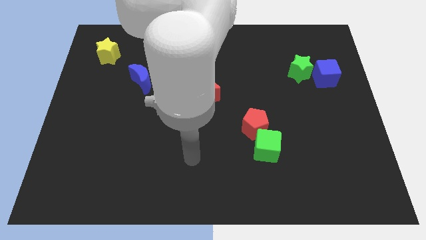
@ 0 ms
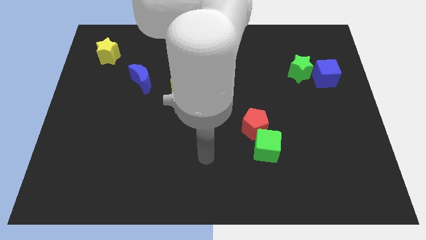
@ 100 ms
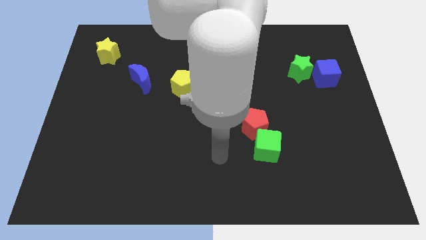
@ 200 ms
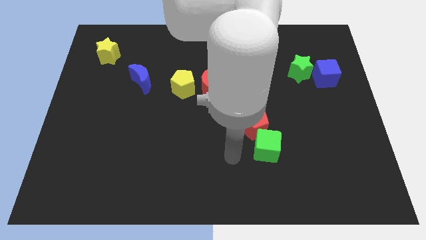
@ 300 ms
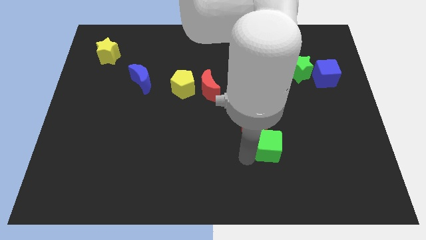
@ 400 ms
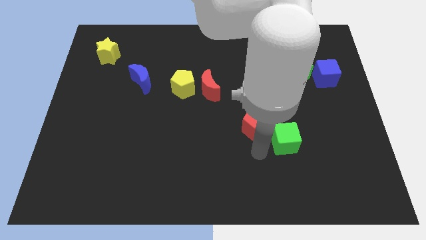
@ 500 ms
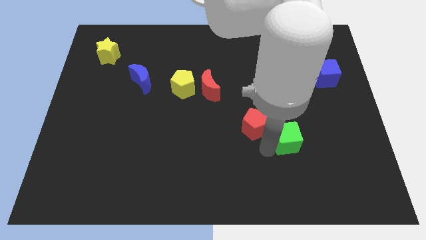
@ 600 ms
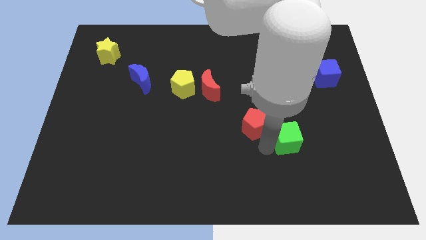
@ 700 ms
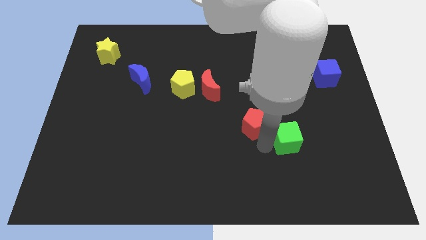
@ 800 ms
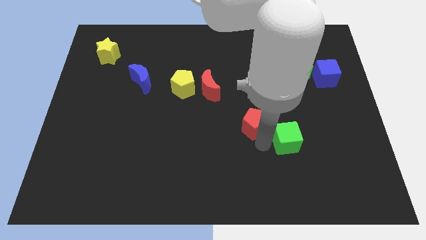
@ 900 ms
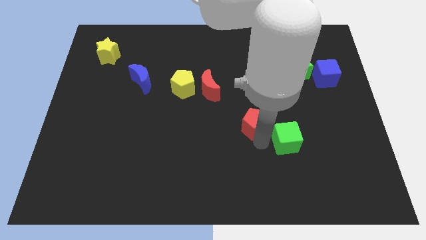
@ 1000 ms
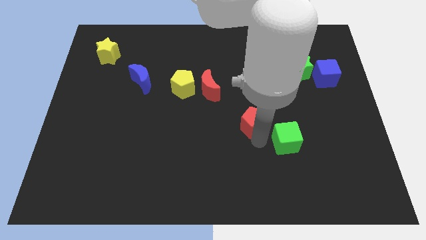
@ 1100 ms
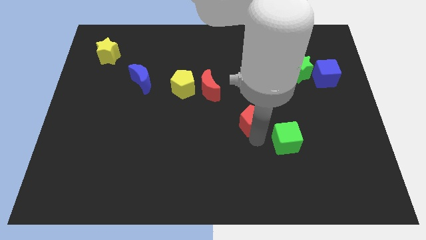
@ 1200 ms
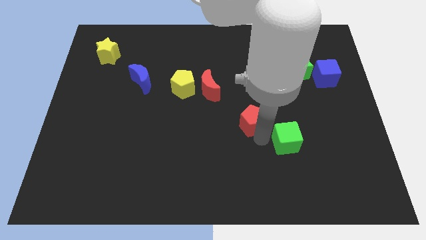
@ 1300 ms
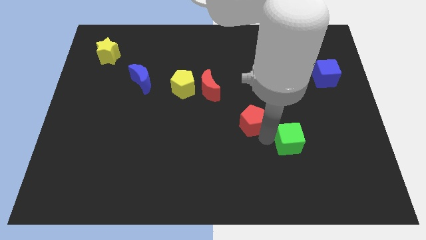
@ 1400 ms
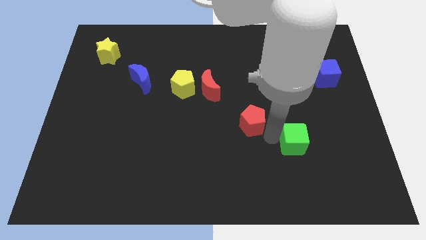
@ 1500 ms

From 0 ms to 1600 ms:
move the red pentagon away from the green cube

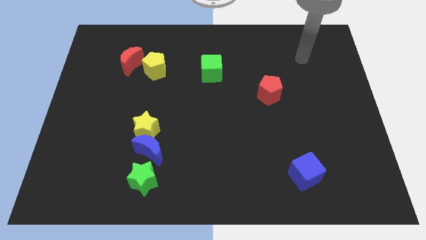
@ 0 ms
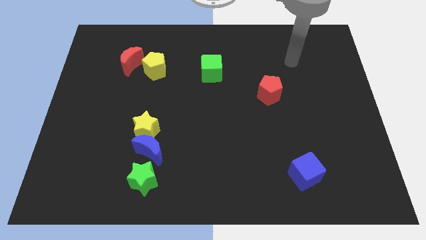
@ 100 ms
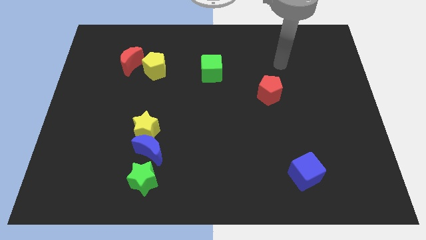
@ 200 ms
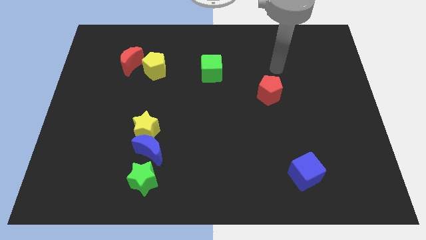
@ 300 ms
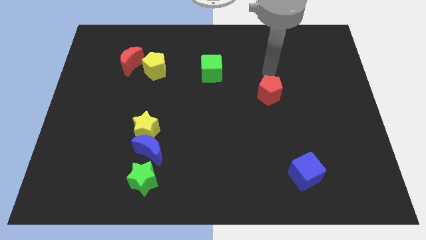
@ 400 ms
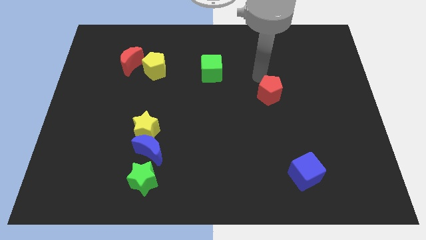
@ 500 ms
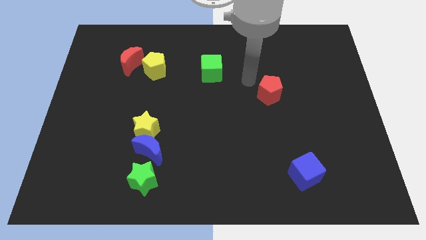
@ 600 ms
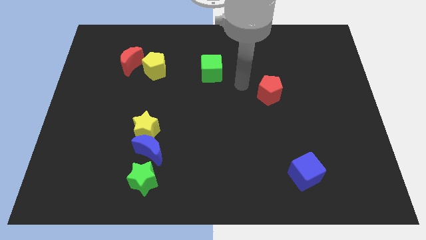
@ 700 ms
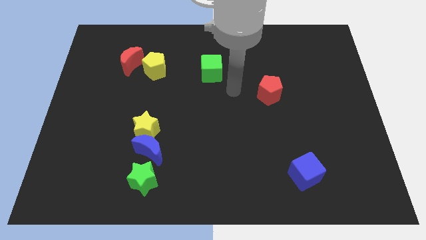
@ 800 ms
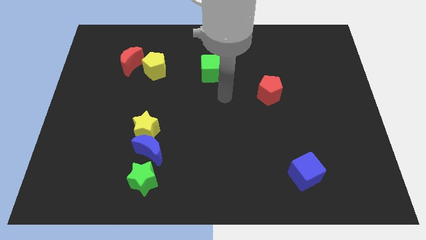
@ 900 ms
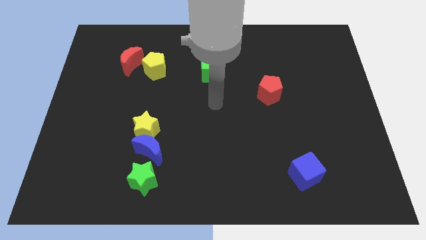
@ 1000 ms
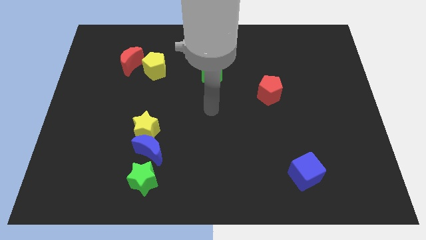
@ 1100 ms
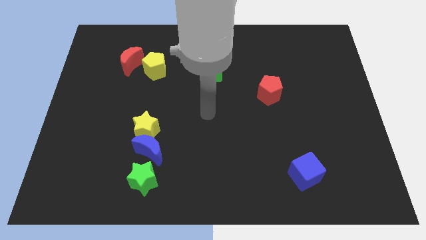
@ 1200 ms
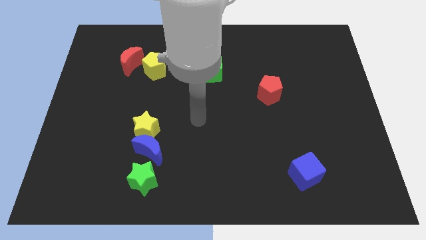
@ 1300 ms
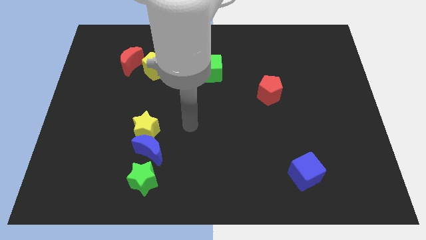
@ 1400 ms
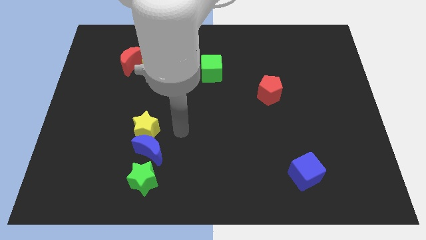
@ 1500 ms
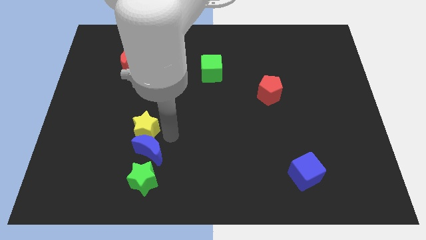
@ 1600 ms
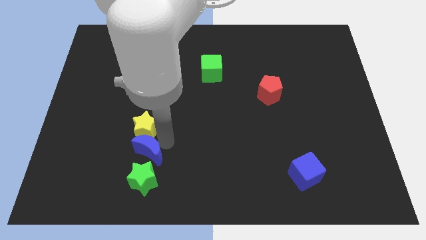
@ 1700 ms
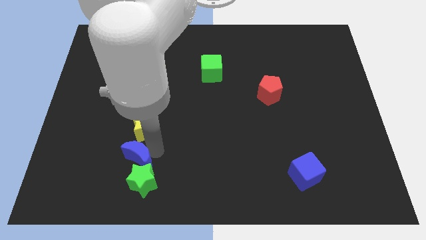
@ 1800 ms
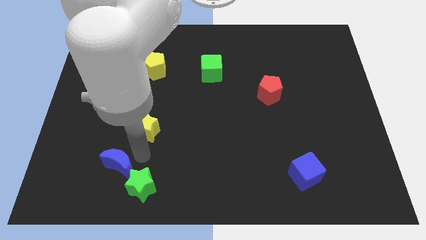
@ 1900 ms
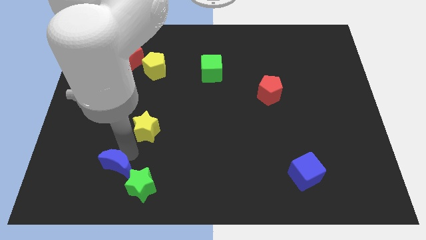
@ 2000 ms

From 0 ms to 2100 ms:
separate the yellow star from the blue moon

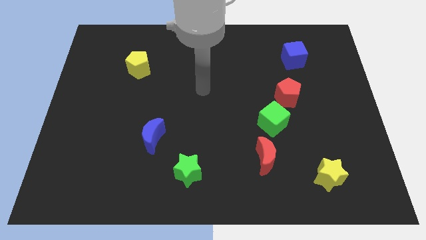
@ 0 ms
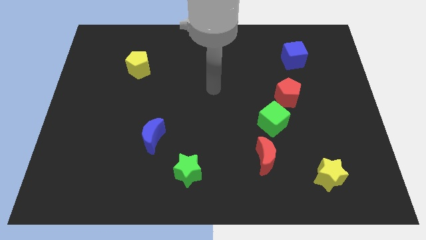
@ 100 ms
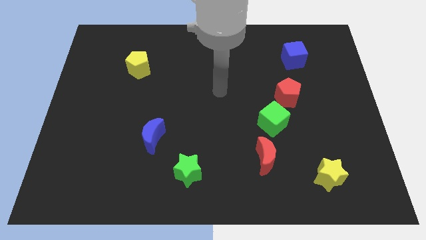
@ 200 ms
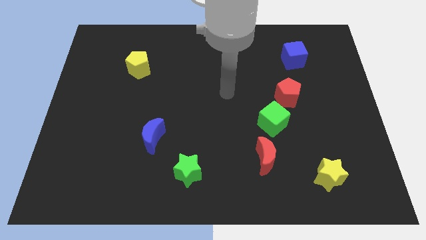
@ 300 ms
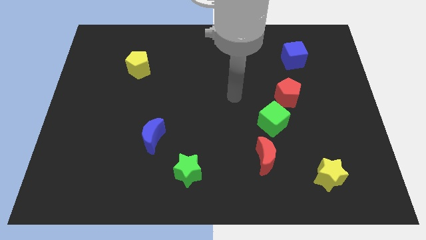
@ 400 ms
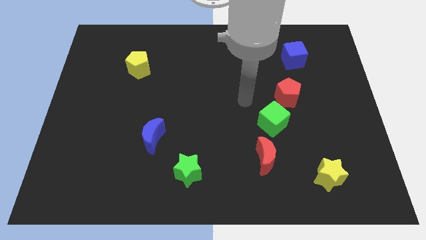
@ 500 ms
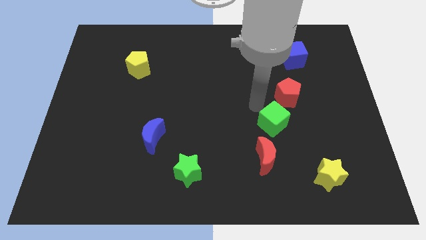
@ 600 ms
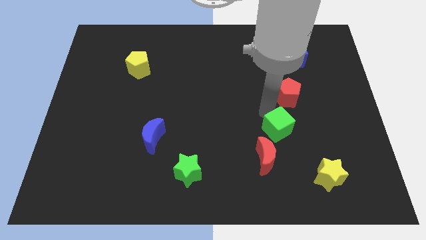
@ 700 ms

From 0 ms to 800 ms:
separate the red pentagon from the green cube

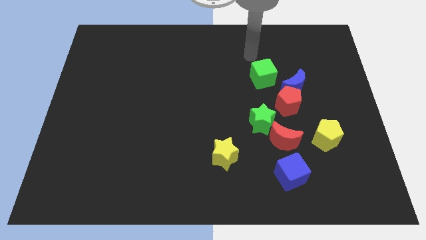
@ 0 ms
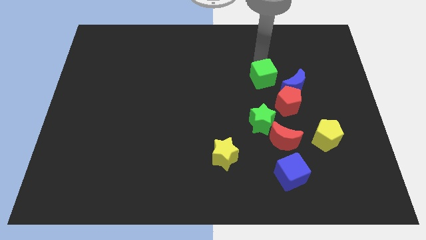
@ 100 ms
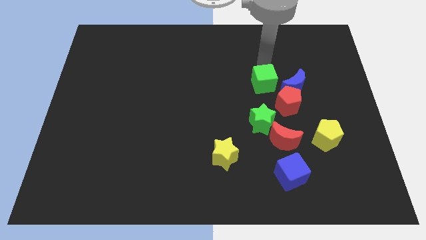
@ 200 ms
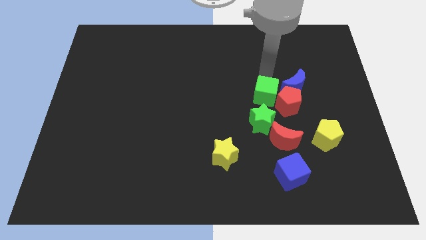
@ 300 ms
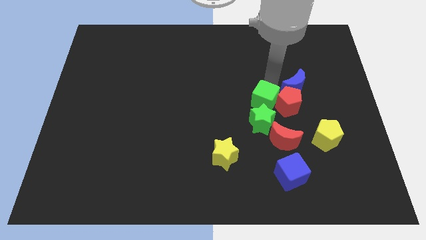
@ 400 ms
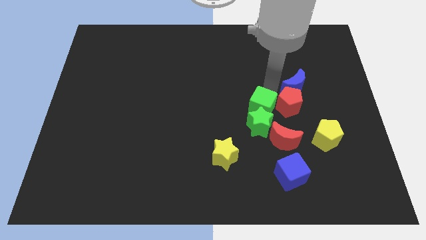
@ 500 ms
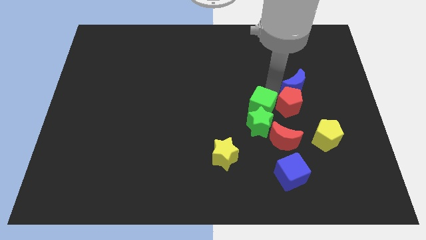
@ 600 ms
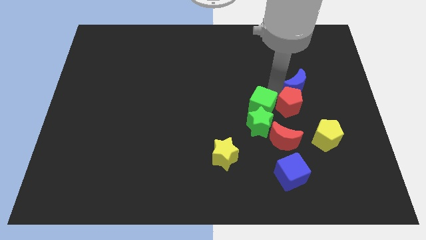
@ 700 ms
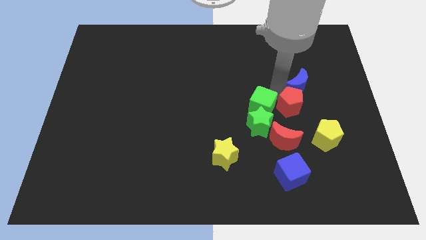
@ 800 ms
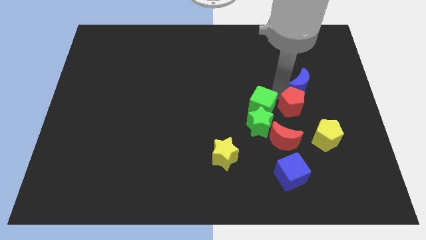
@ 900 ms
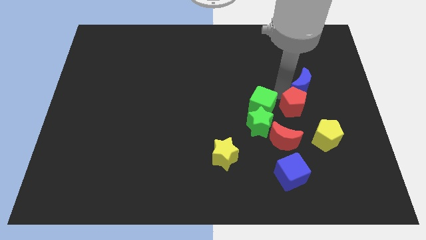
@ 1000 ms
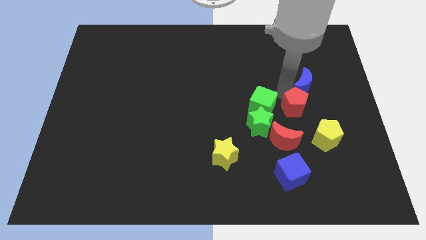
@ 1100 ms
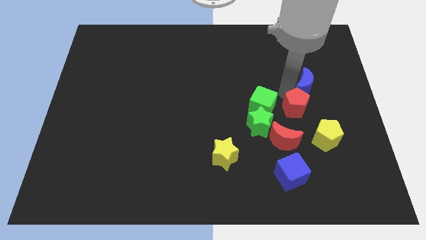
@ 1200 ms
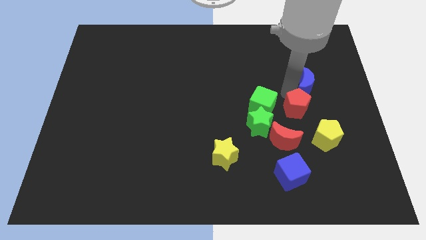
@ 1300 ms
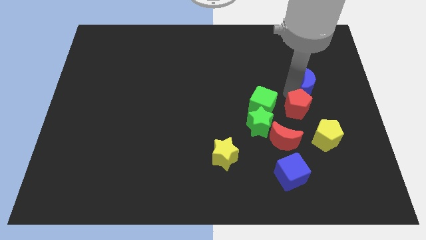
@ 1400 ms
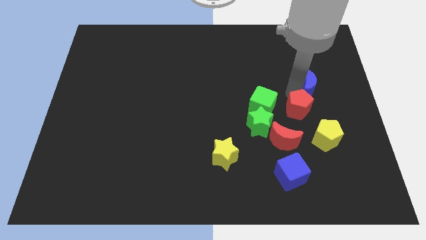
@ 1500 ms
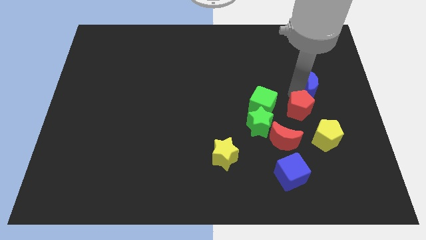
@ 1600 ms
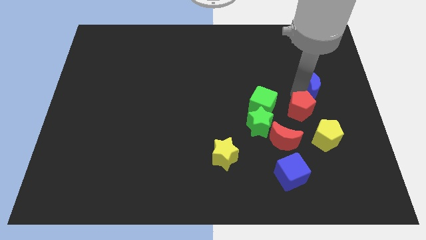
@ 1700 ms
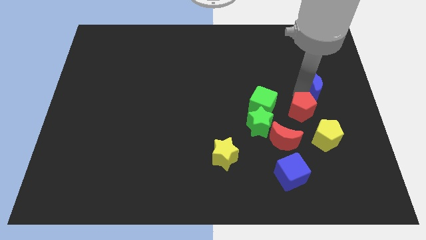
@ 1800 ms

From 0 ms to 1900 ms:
pull the blue moon apart from the red pentagon and green cube

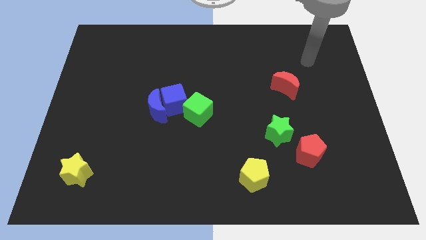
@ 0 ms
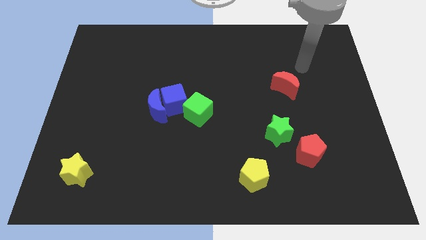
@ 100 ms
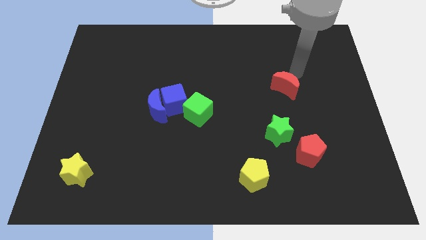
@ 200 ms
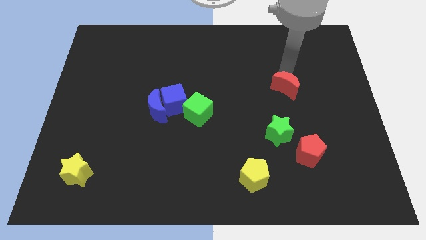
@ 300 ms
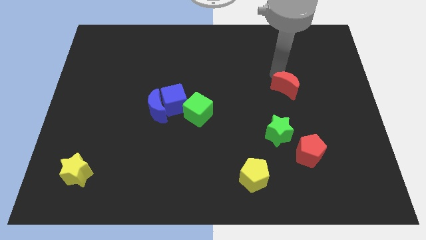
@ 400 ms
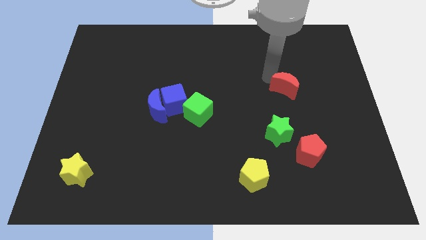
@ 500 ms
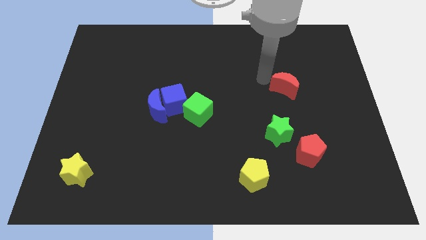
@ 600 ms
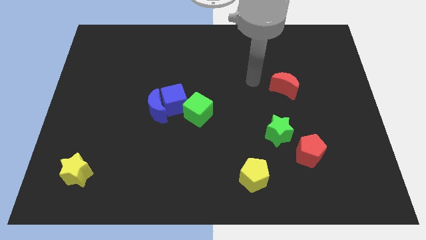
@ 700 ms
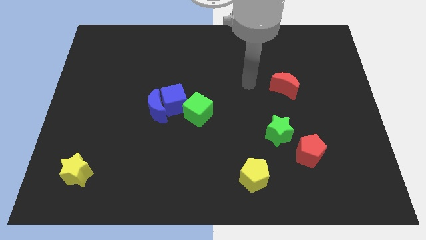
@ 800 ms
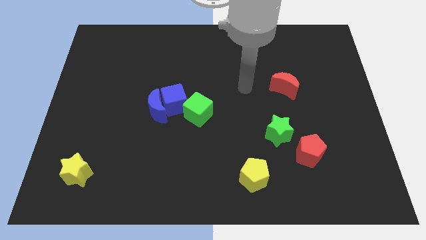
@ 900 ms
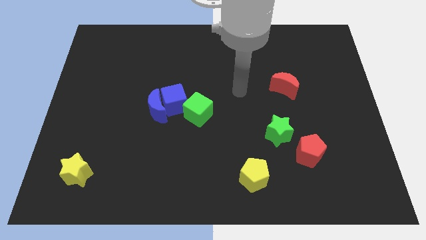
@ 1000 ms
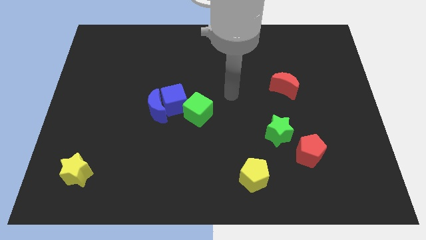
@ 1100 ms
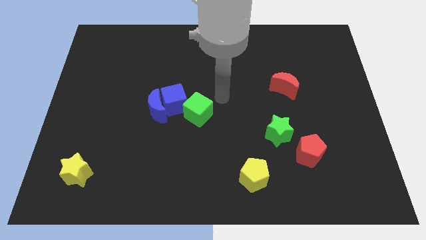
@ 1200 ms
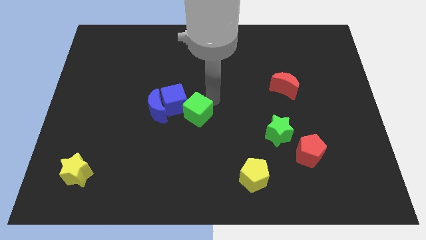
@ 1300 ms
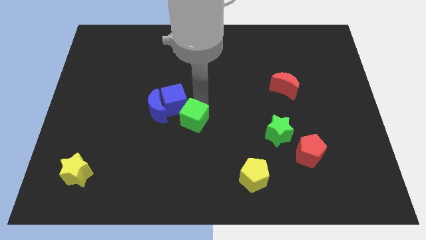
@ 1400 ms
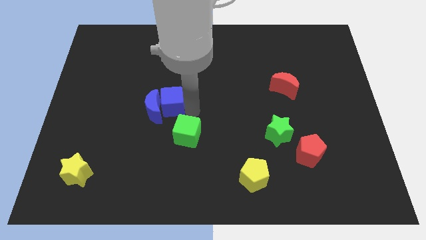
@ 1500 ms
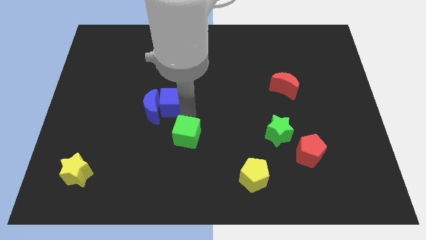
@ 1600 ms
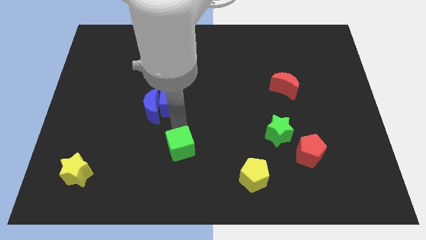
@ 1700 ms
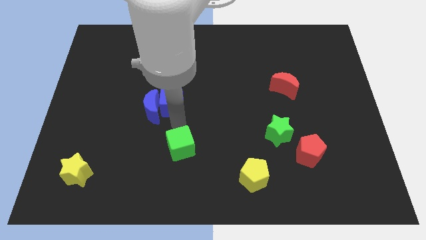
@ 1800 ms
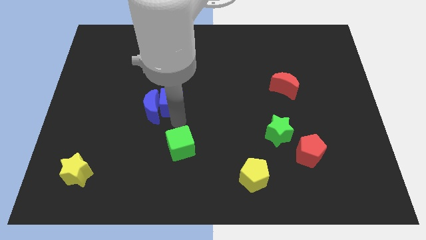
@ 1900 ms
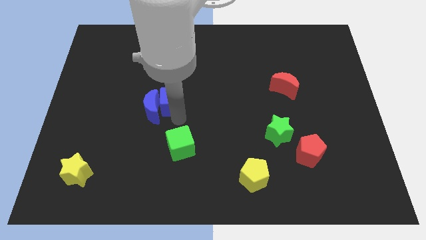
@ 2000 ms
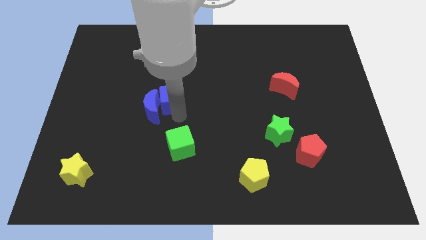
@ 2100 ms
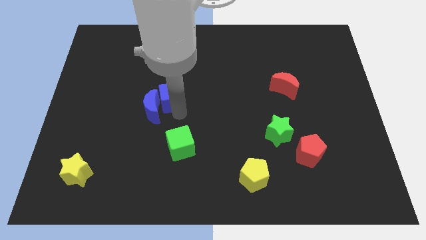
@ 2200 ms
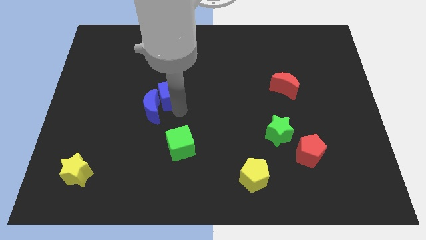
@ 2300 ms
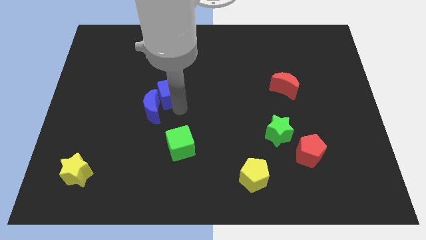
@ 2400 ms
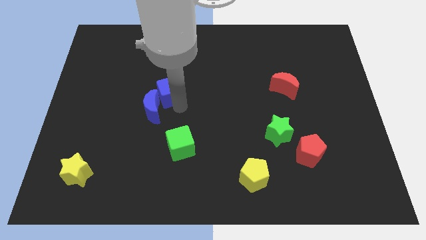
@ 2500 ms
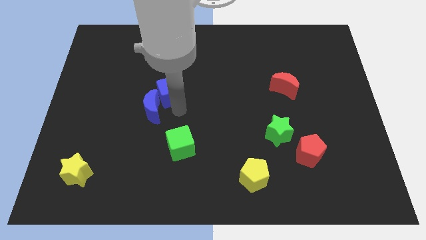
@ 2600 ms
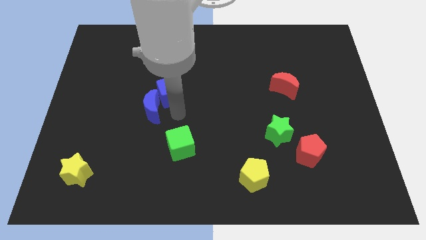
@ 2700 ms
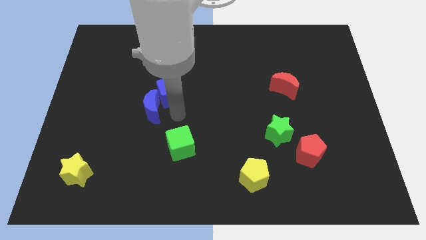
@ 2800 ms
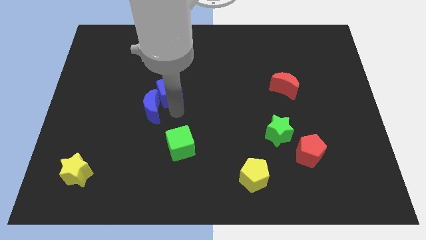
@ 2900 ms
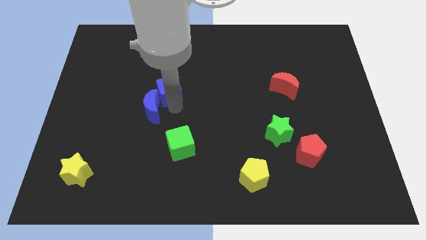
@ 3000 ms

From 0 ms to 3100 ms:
separate the blue cube from the blue moon and green cube
